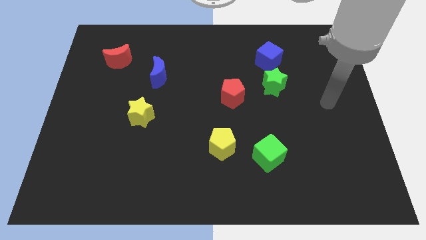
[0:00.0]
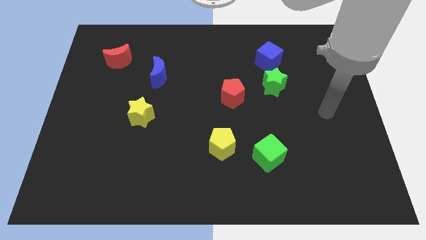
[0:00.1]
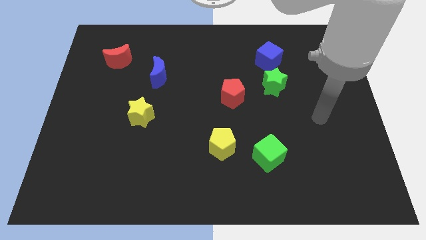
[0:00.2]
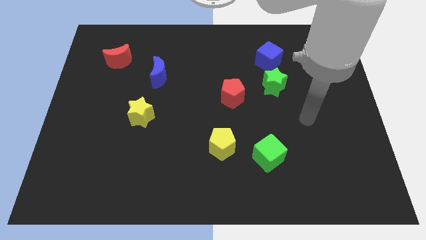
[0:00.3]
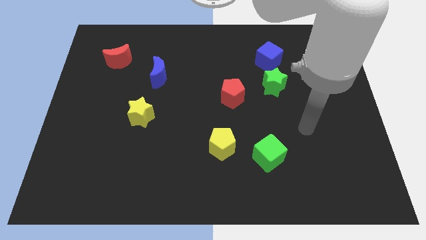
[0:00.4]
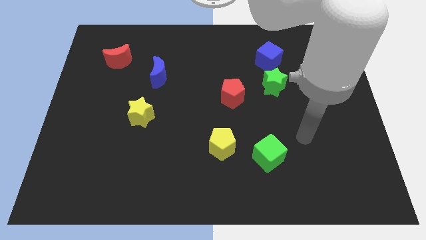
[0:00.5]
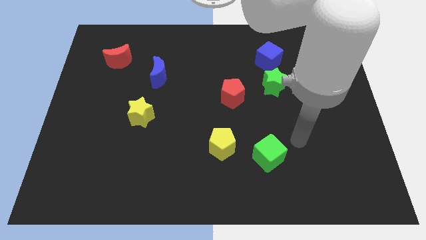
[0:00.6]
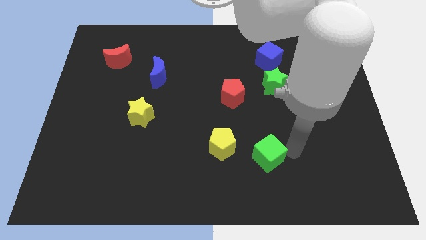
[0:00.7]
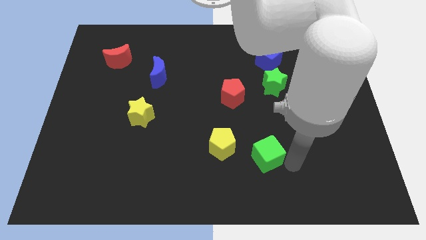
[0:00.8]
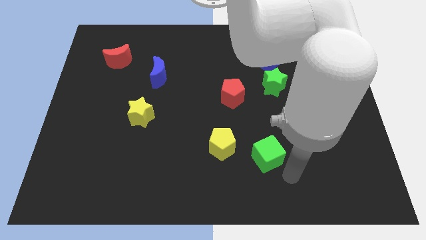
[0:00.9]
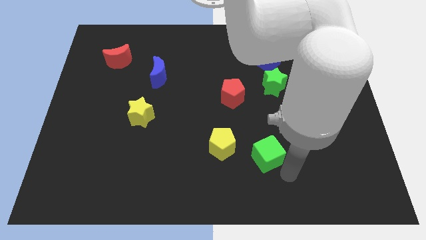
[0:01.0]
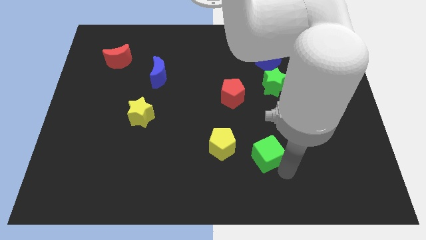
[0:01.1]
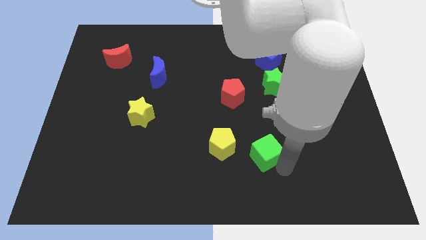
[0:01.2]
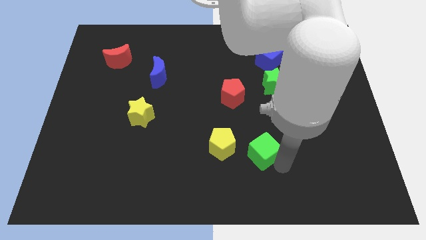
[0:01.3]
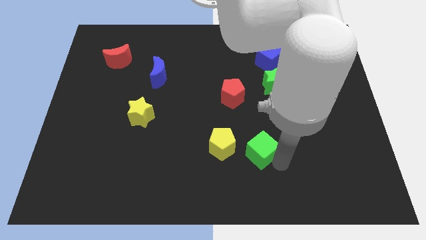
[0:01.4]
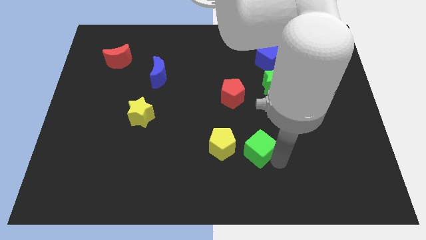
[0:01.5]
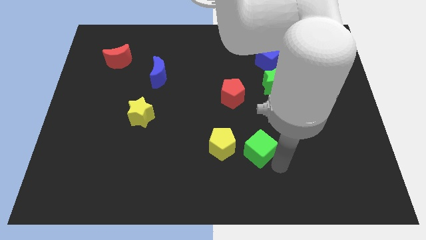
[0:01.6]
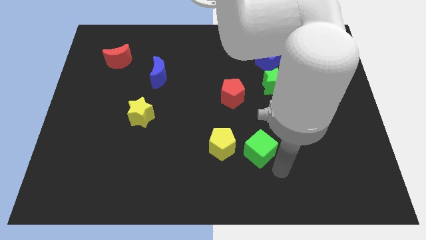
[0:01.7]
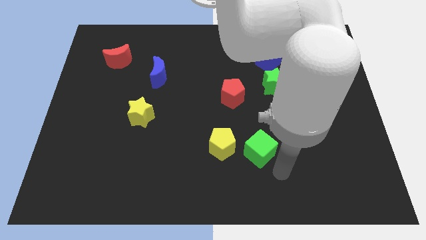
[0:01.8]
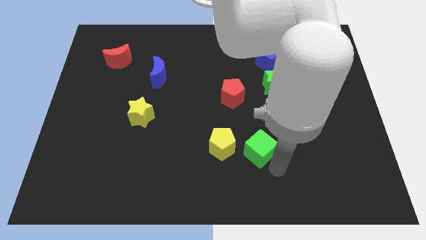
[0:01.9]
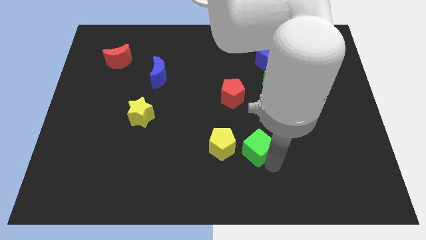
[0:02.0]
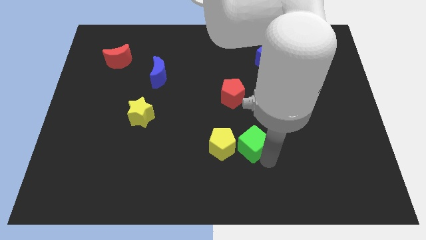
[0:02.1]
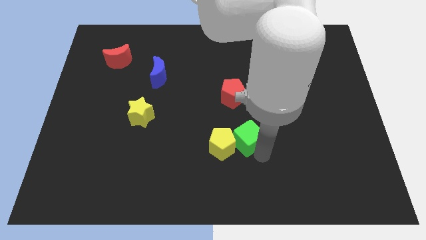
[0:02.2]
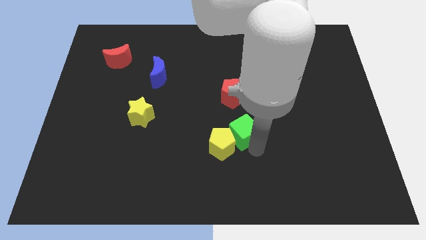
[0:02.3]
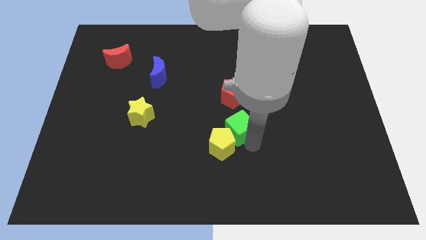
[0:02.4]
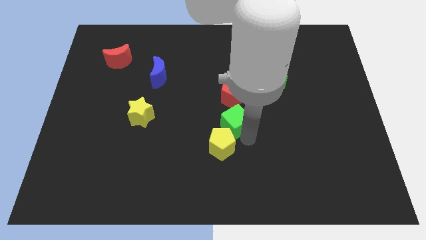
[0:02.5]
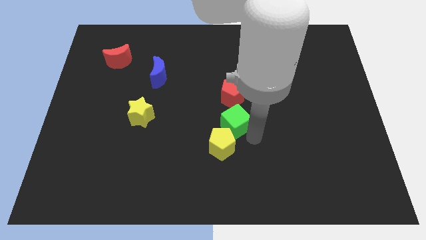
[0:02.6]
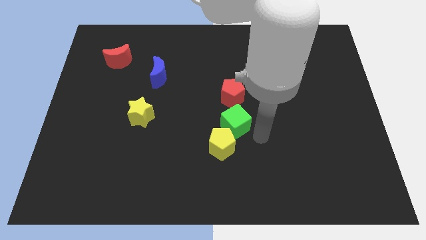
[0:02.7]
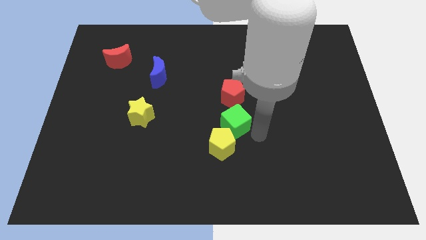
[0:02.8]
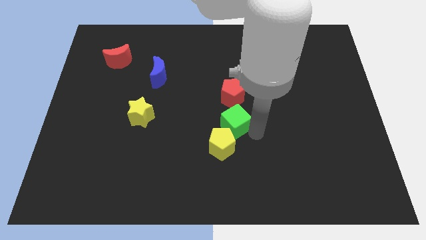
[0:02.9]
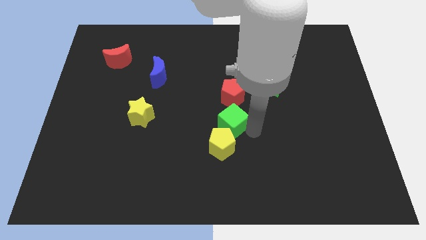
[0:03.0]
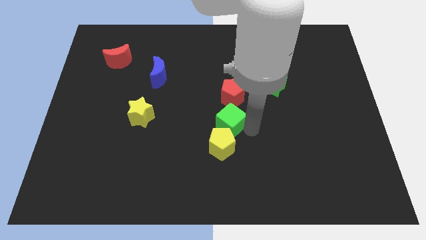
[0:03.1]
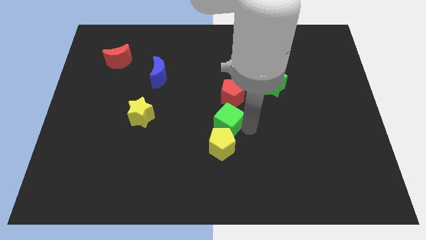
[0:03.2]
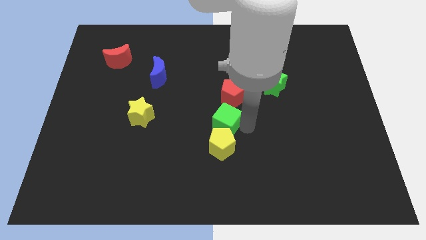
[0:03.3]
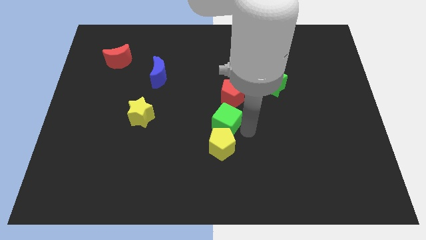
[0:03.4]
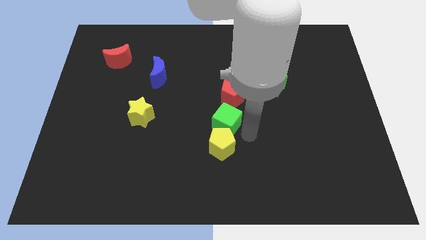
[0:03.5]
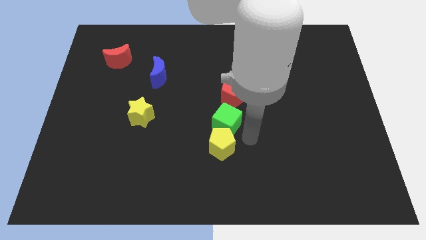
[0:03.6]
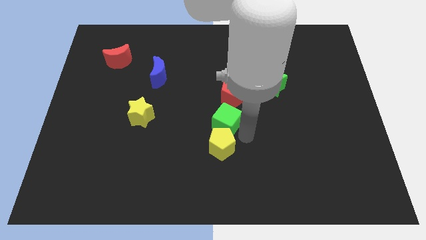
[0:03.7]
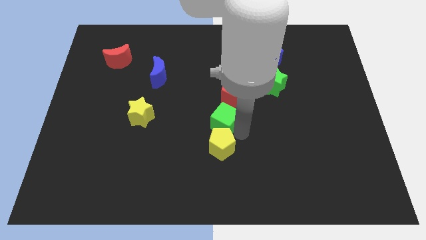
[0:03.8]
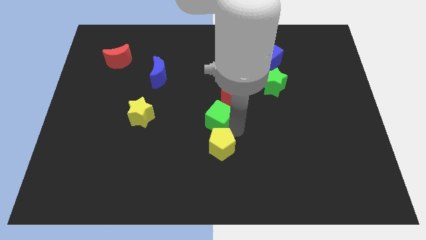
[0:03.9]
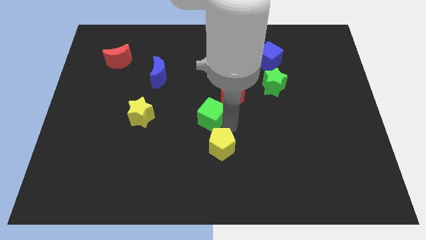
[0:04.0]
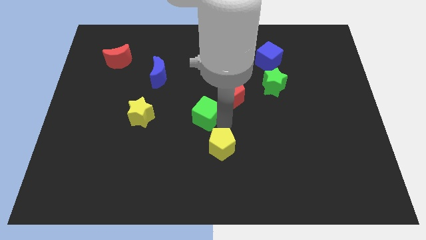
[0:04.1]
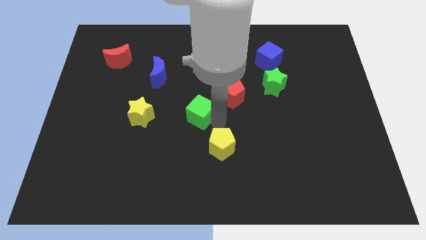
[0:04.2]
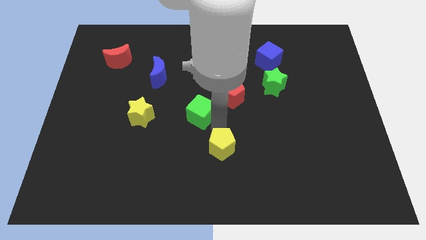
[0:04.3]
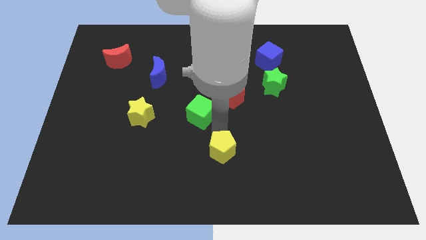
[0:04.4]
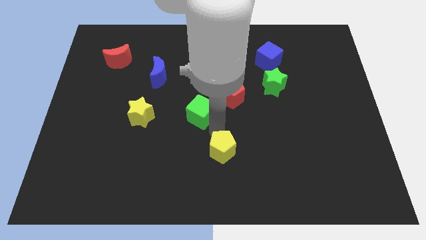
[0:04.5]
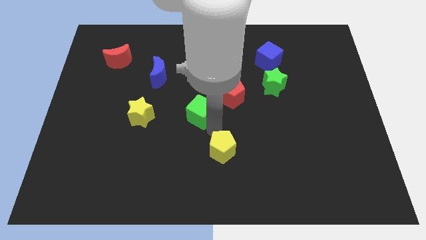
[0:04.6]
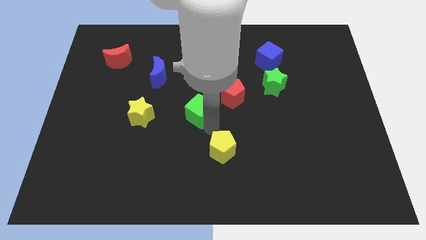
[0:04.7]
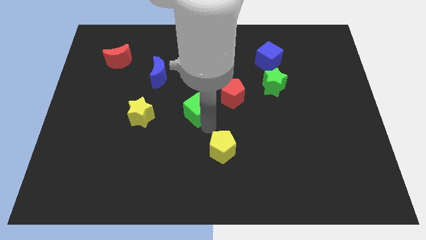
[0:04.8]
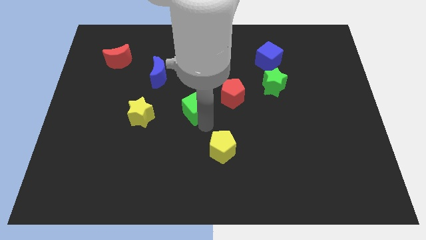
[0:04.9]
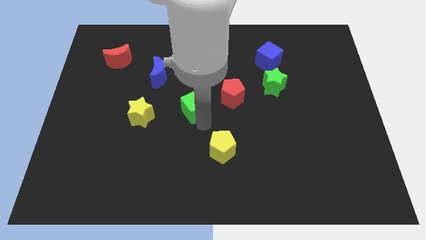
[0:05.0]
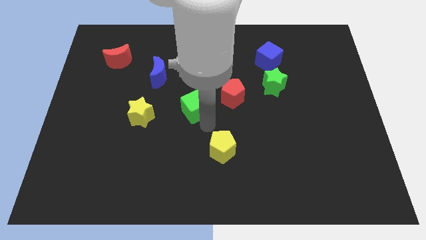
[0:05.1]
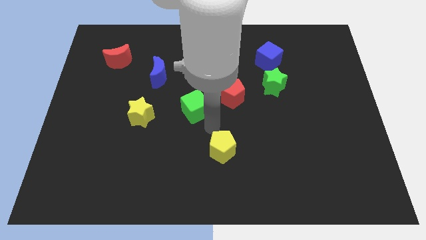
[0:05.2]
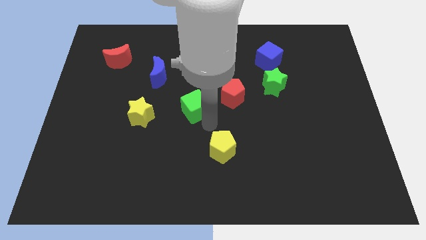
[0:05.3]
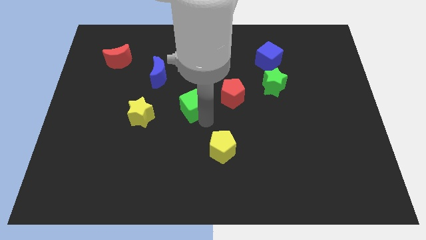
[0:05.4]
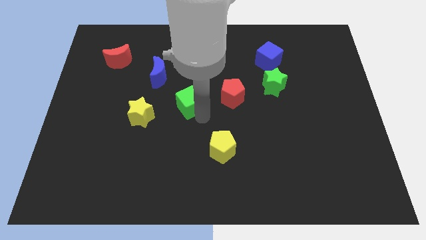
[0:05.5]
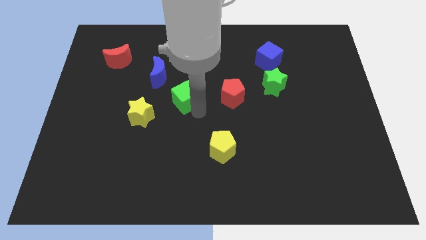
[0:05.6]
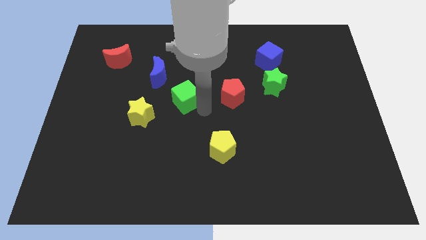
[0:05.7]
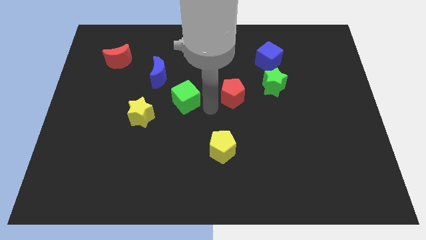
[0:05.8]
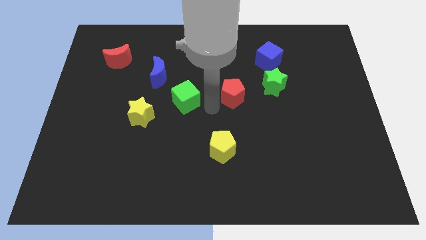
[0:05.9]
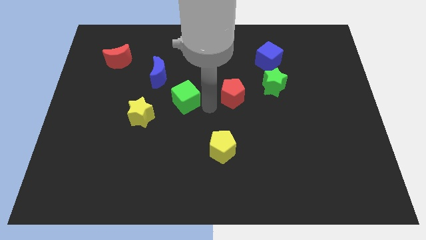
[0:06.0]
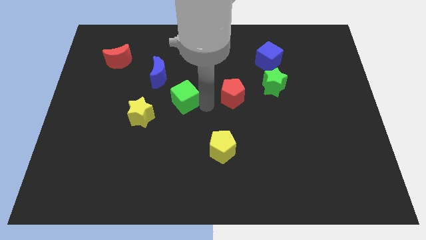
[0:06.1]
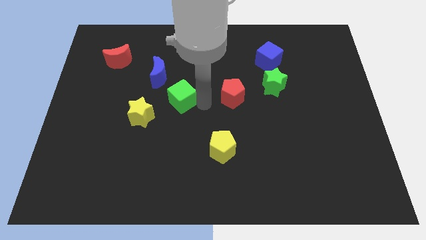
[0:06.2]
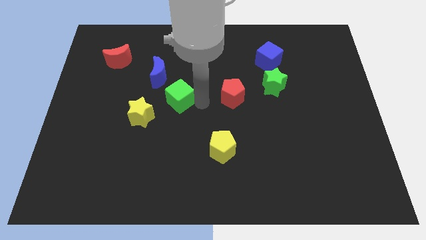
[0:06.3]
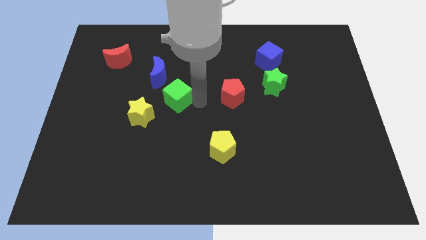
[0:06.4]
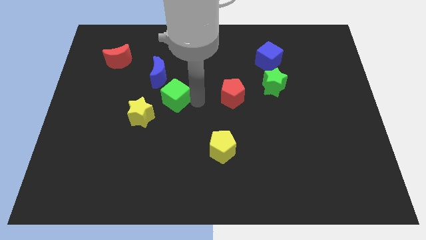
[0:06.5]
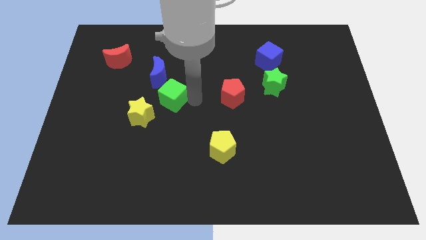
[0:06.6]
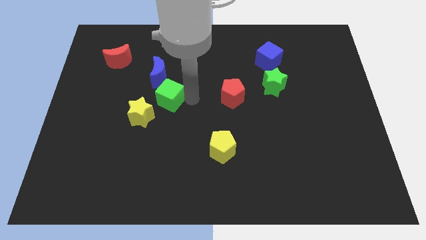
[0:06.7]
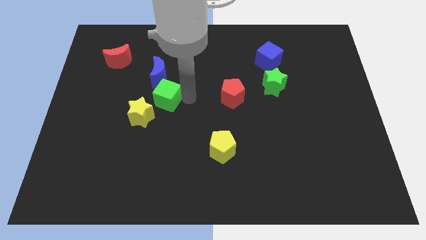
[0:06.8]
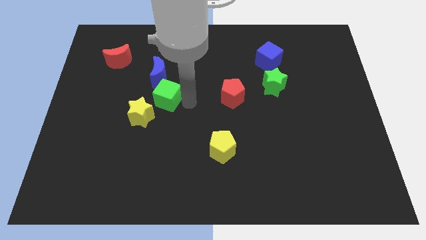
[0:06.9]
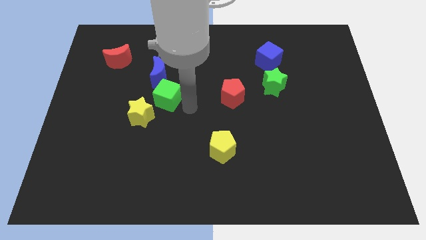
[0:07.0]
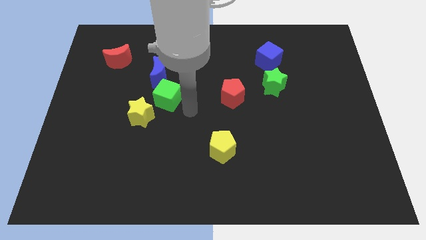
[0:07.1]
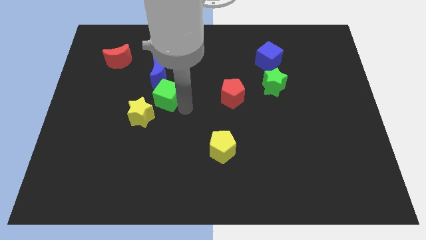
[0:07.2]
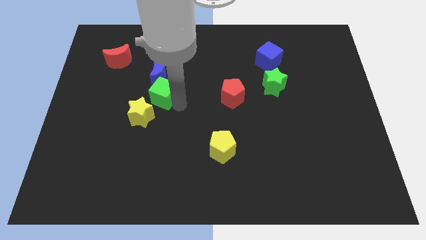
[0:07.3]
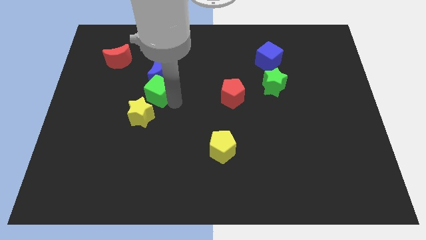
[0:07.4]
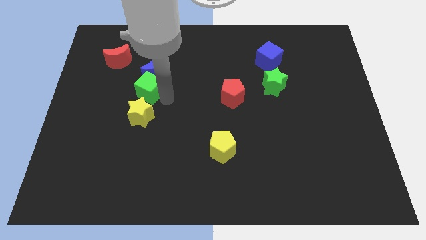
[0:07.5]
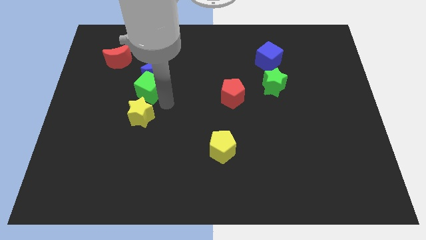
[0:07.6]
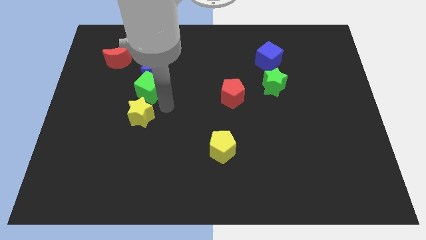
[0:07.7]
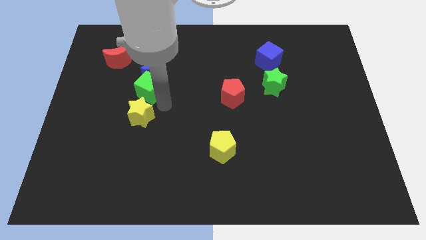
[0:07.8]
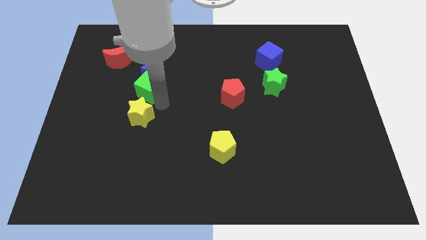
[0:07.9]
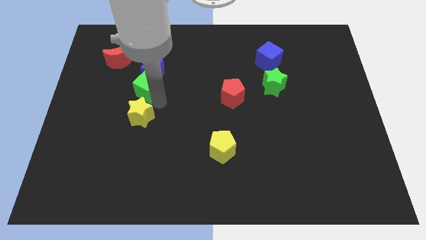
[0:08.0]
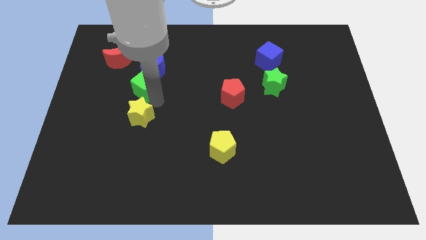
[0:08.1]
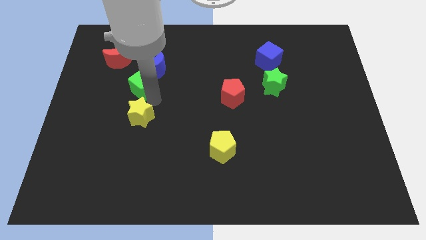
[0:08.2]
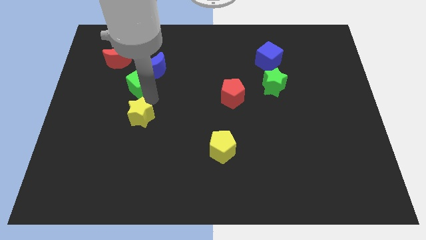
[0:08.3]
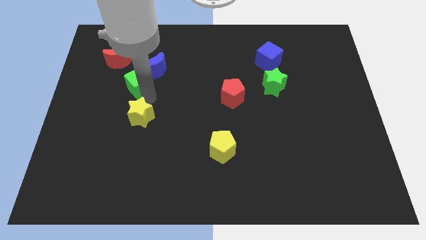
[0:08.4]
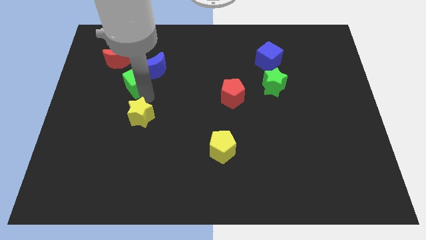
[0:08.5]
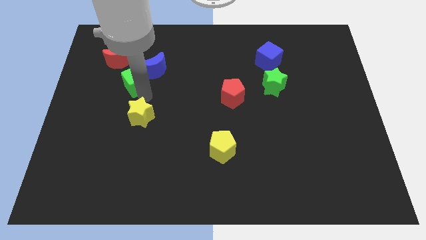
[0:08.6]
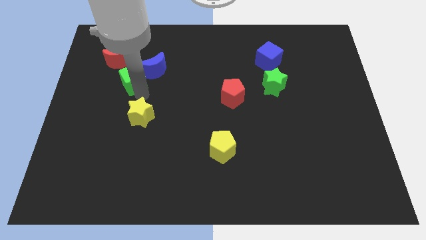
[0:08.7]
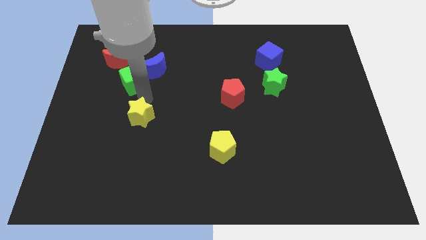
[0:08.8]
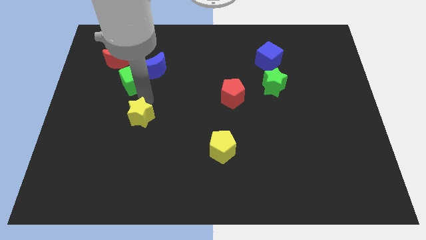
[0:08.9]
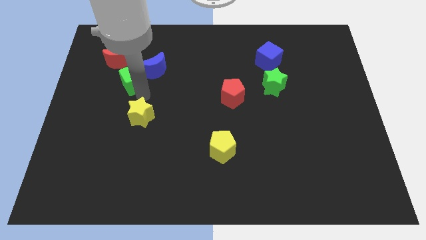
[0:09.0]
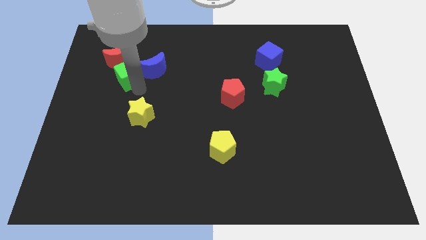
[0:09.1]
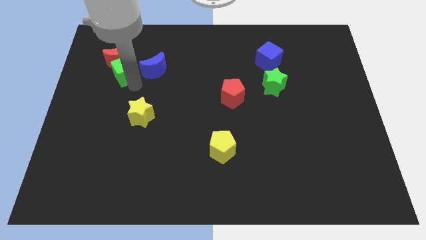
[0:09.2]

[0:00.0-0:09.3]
put the green cube next to the red moon
